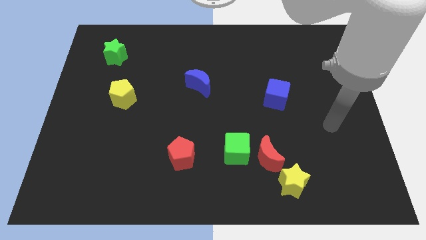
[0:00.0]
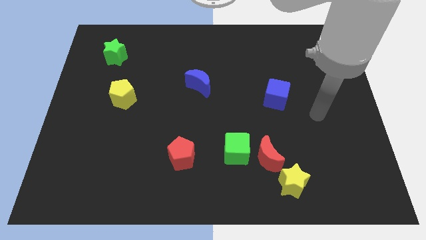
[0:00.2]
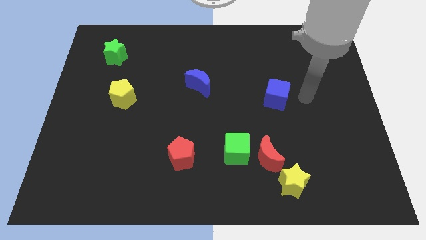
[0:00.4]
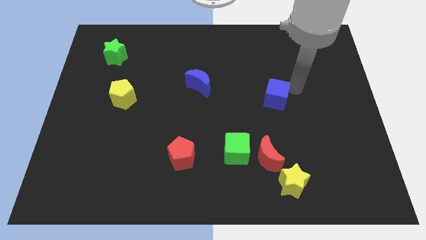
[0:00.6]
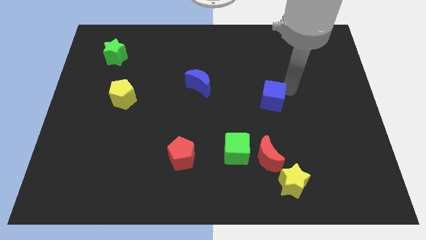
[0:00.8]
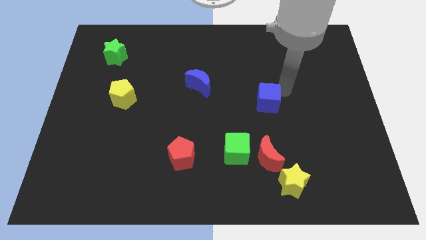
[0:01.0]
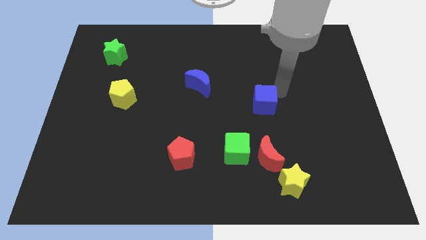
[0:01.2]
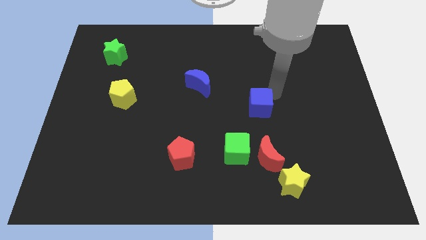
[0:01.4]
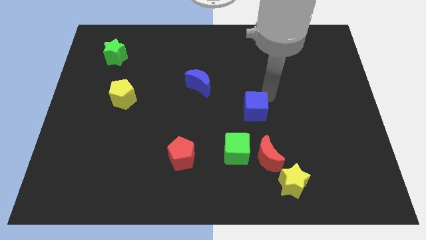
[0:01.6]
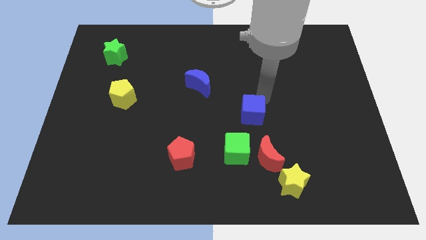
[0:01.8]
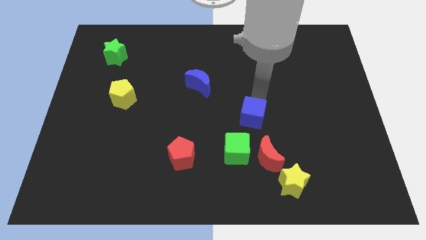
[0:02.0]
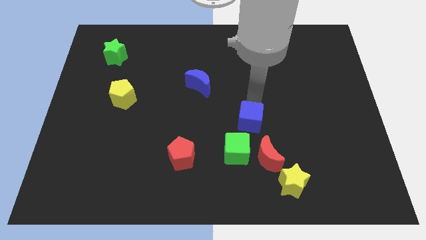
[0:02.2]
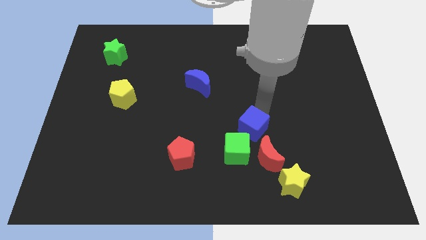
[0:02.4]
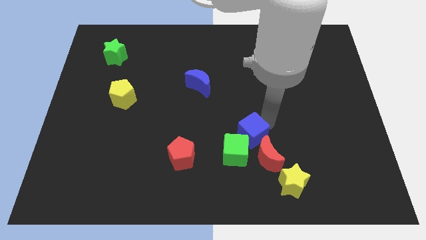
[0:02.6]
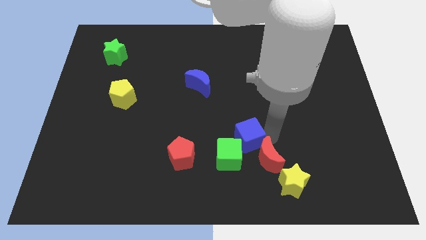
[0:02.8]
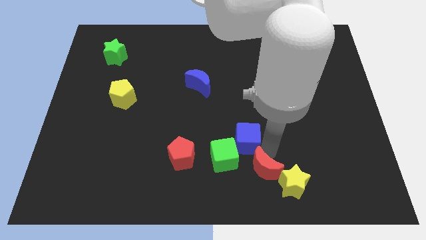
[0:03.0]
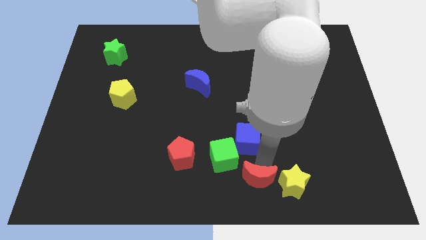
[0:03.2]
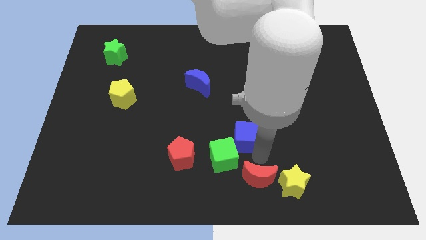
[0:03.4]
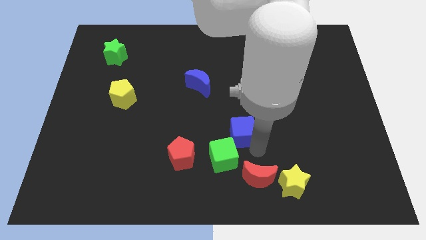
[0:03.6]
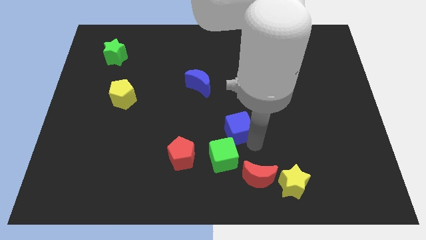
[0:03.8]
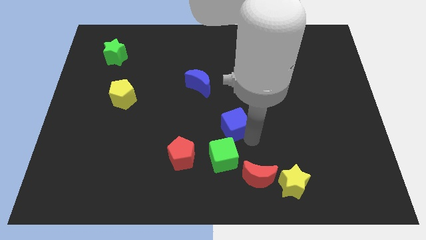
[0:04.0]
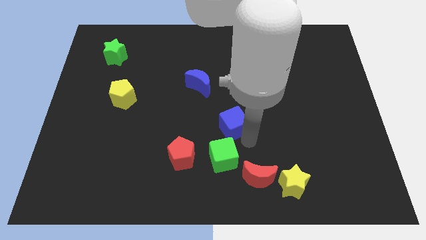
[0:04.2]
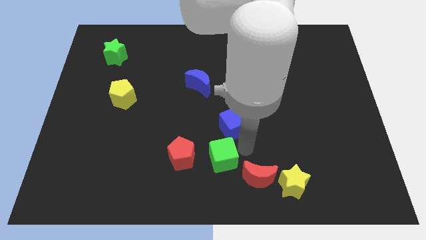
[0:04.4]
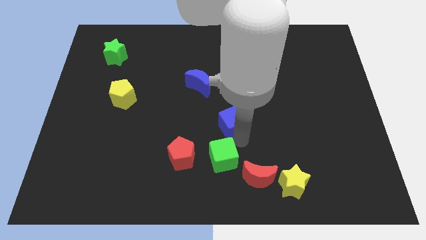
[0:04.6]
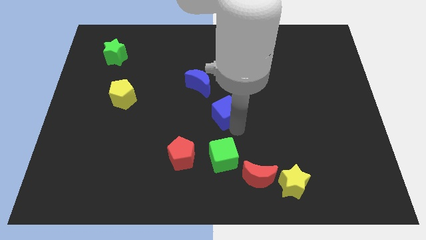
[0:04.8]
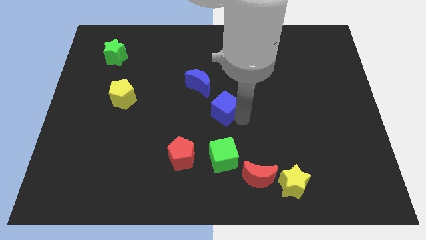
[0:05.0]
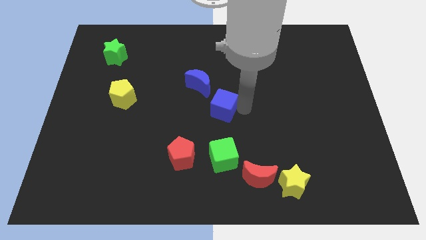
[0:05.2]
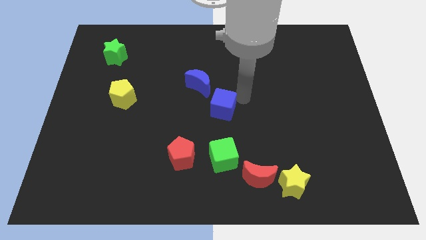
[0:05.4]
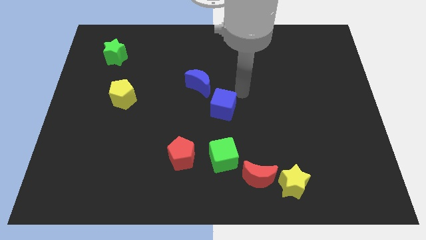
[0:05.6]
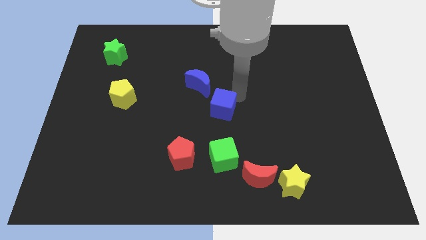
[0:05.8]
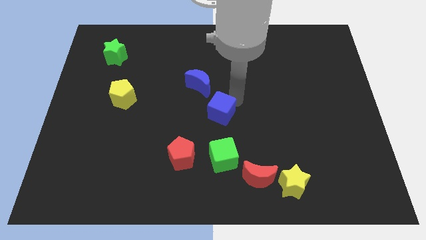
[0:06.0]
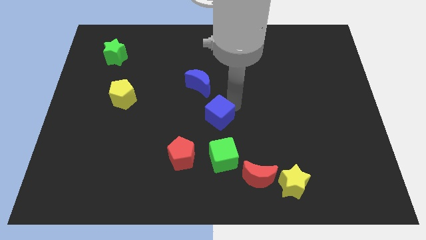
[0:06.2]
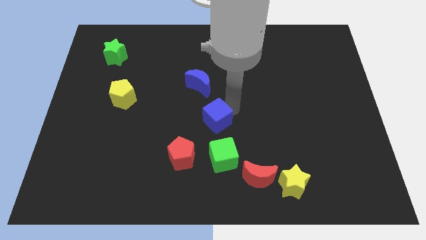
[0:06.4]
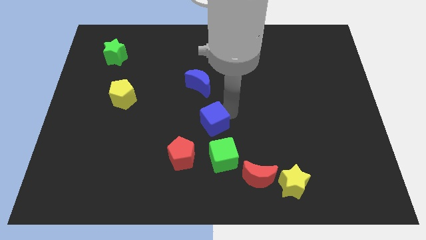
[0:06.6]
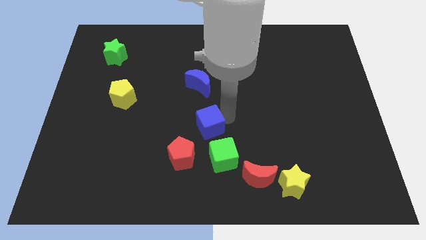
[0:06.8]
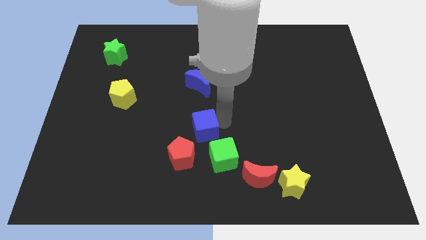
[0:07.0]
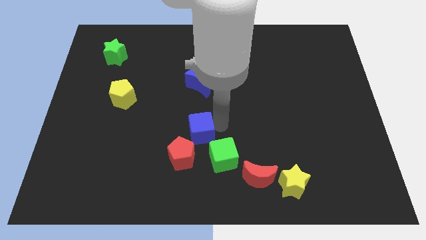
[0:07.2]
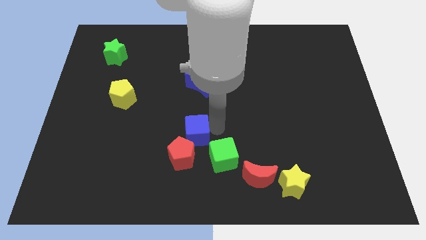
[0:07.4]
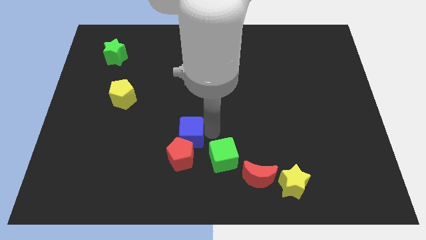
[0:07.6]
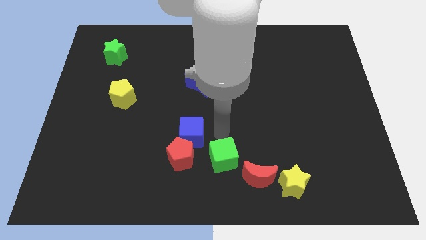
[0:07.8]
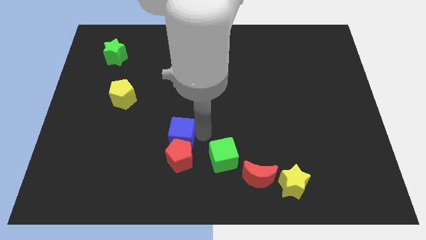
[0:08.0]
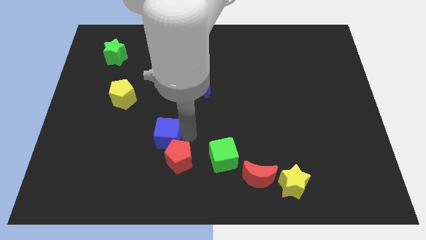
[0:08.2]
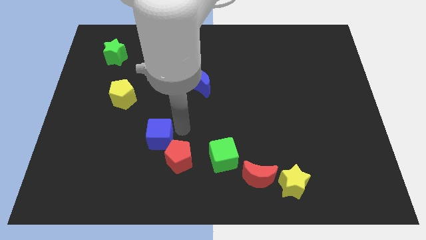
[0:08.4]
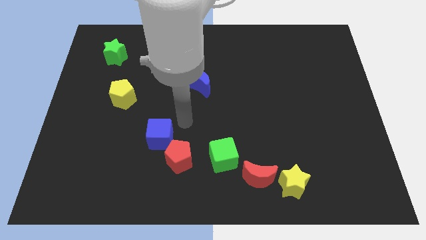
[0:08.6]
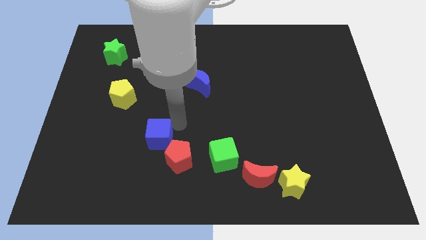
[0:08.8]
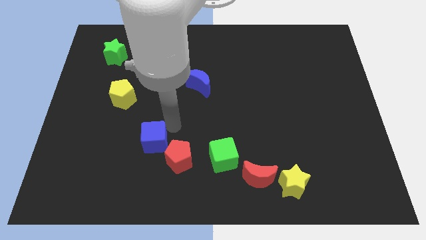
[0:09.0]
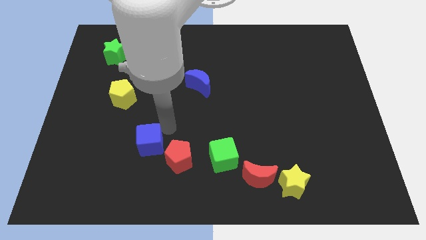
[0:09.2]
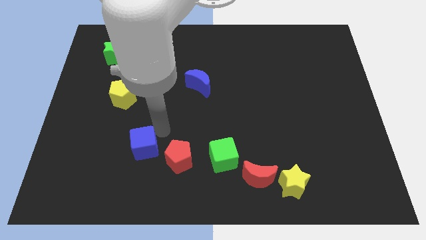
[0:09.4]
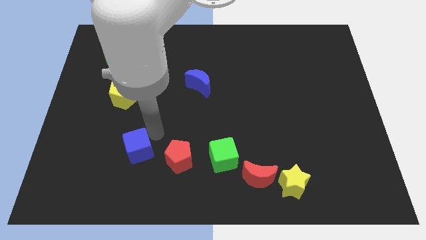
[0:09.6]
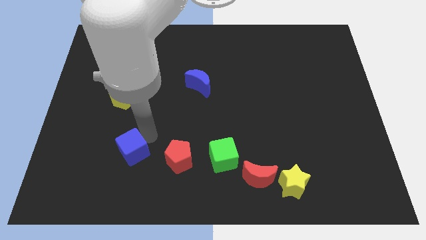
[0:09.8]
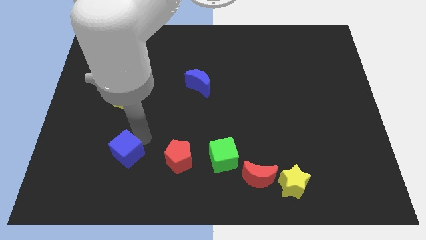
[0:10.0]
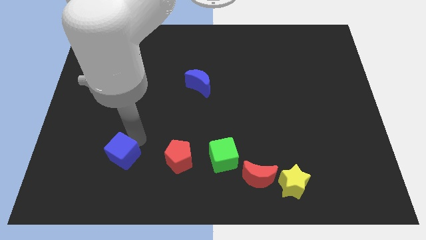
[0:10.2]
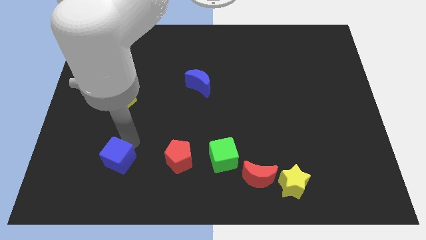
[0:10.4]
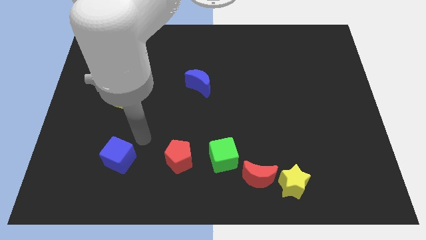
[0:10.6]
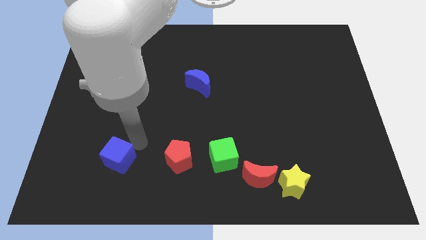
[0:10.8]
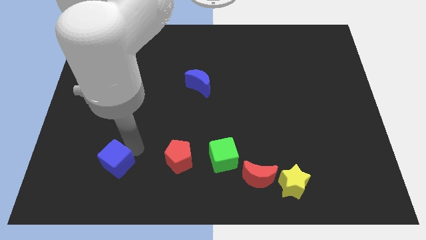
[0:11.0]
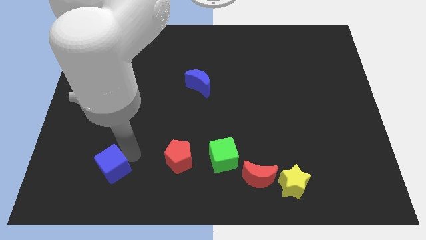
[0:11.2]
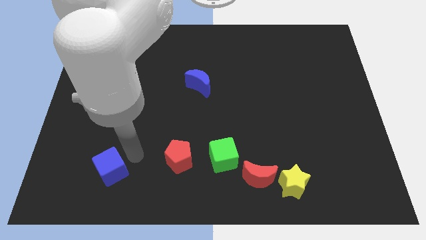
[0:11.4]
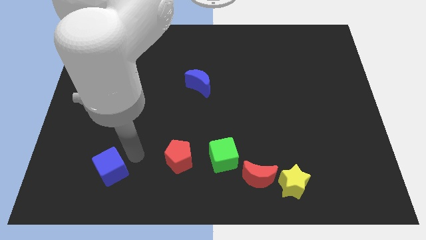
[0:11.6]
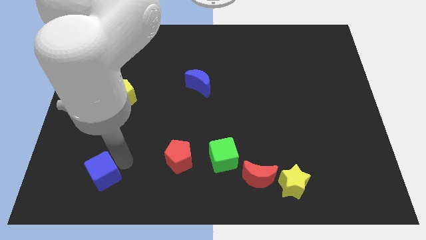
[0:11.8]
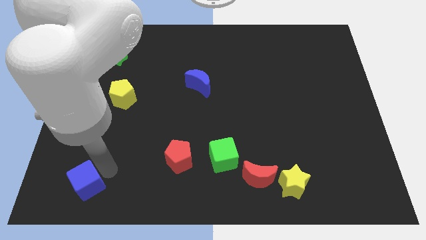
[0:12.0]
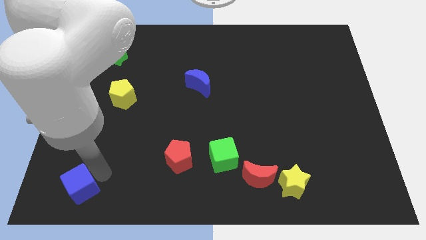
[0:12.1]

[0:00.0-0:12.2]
put the blue cube to the bottom left corner
